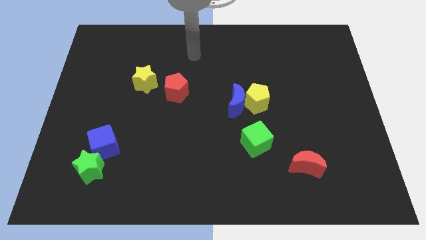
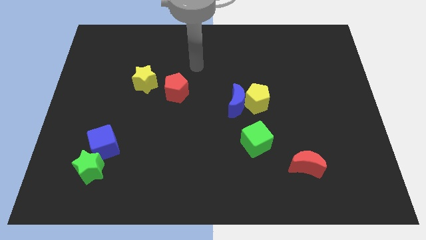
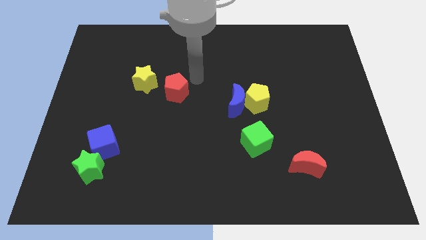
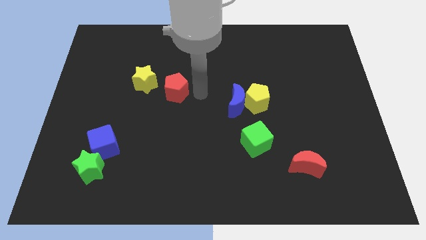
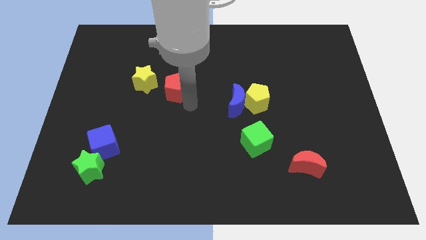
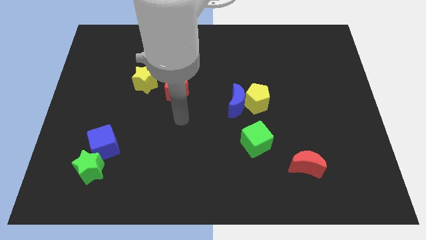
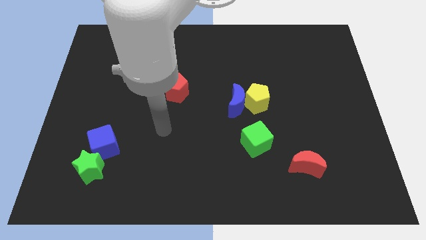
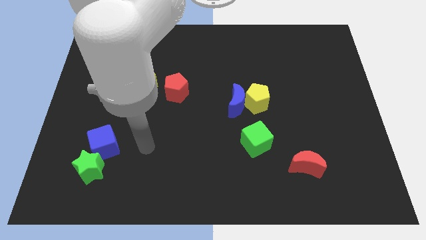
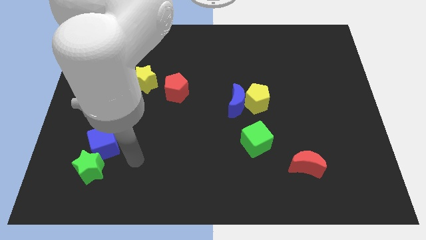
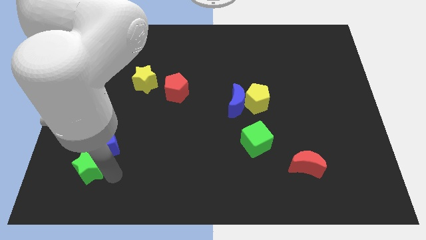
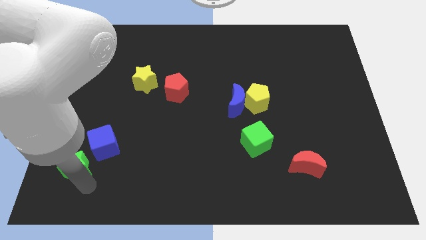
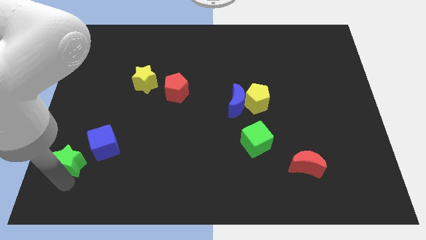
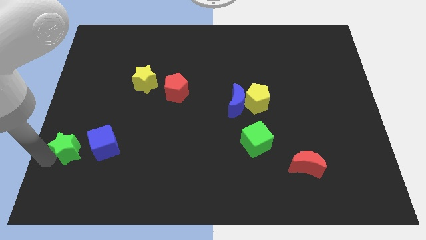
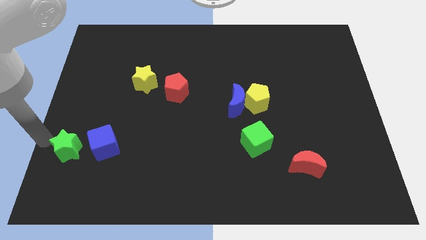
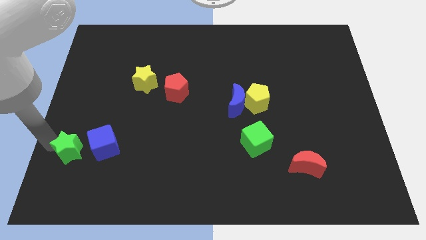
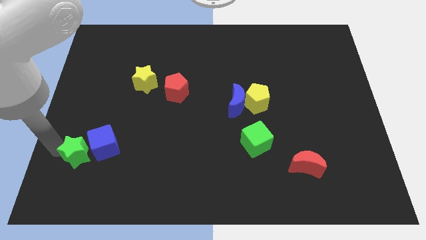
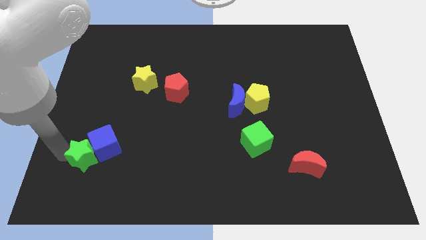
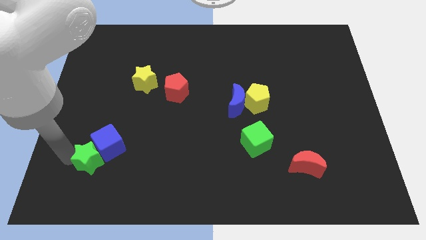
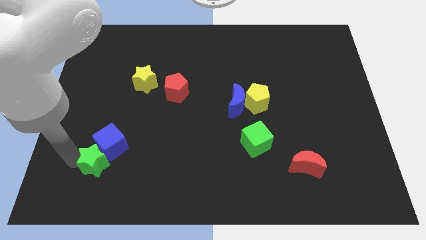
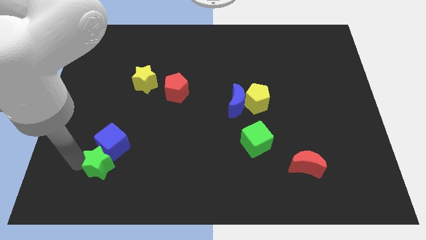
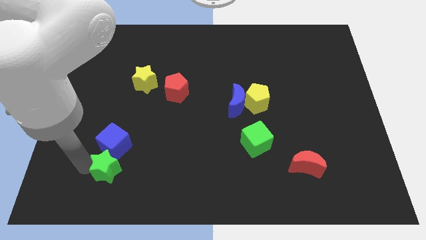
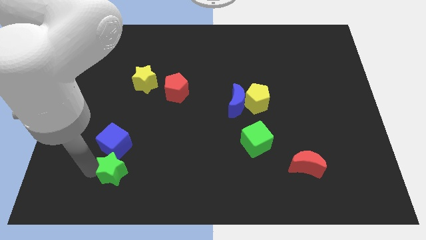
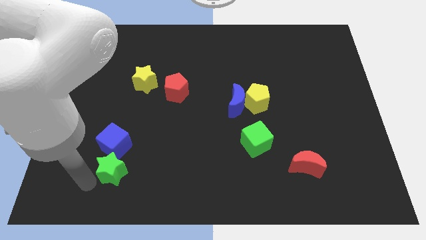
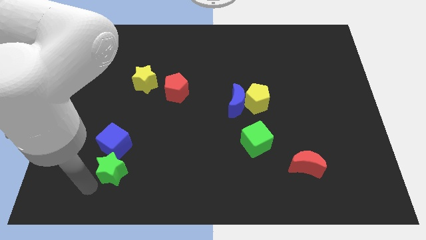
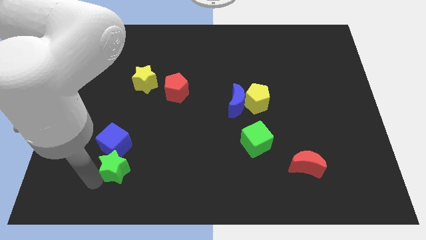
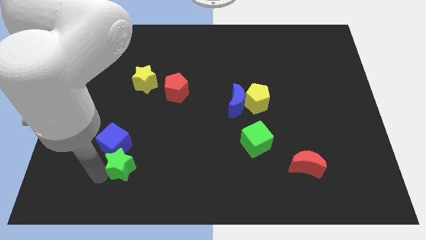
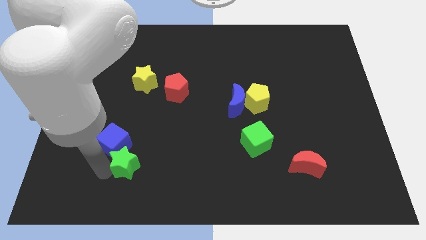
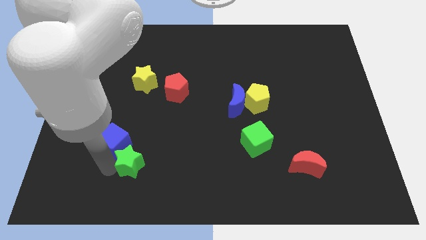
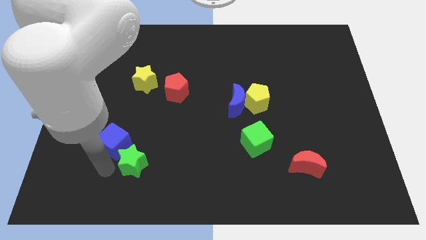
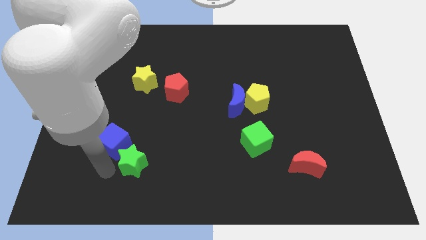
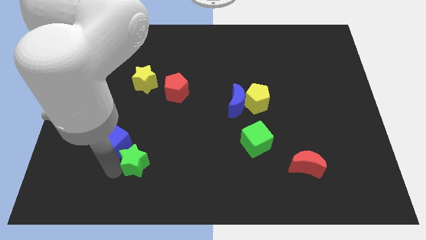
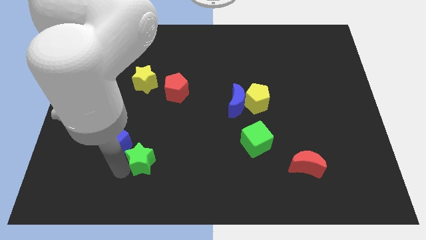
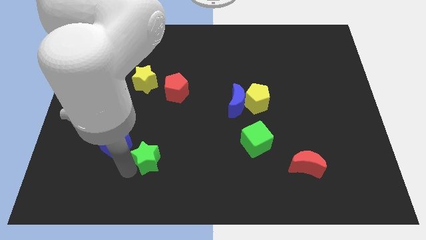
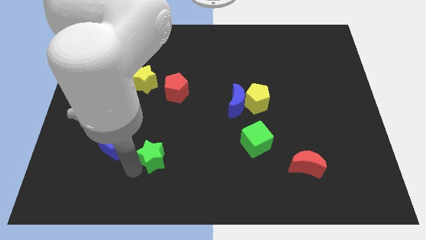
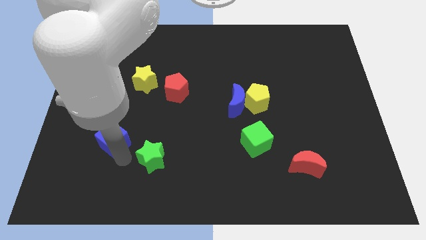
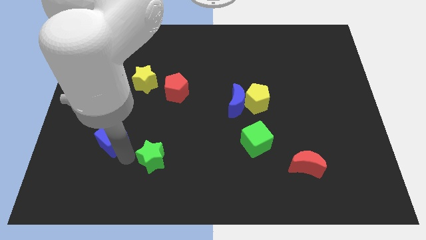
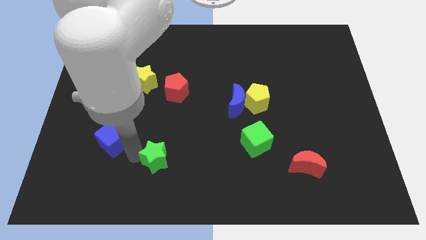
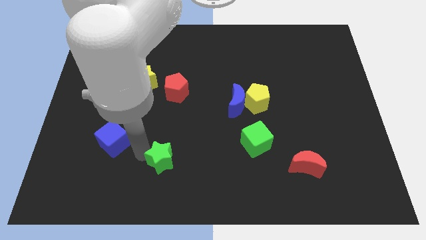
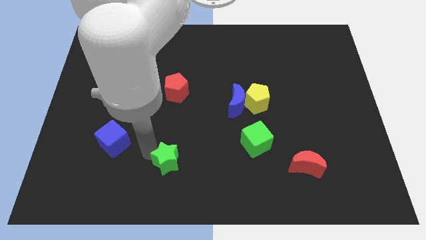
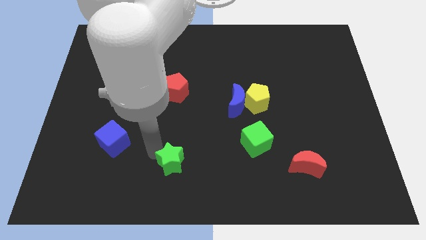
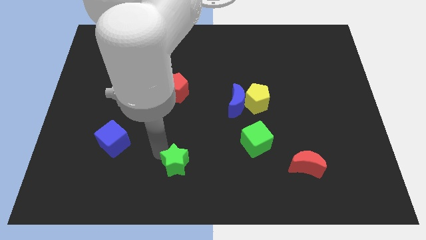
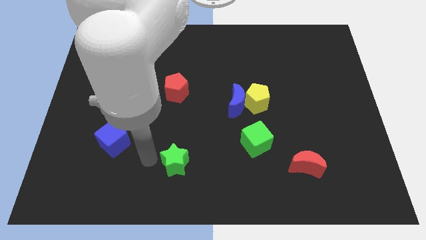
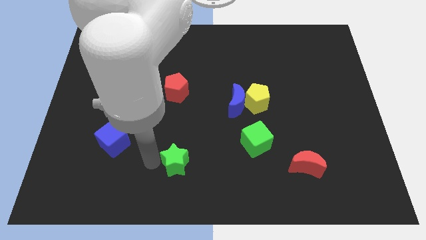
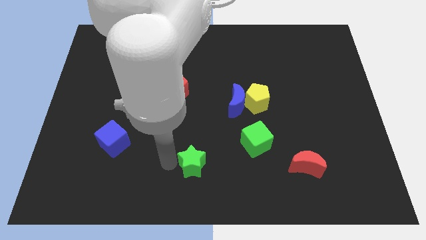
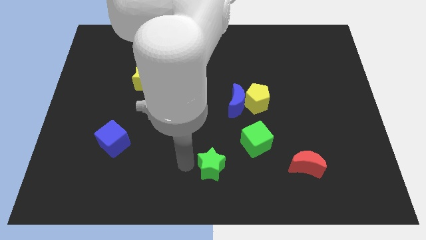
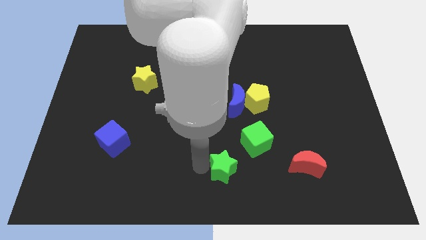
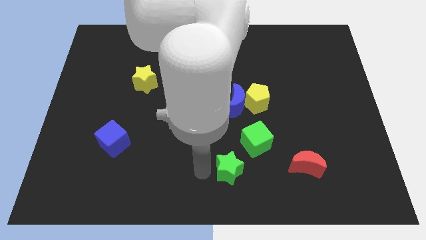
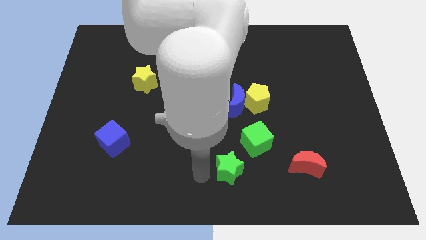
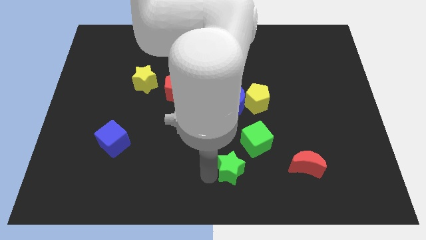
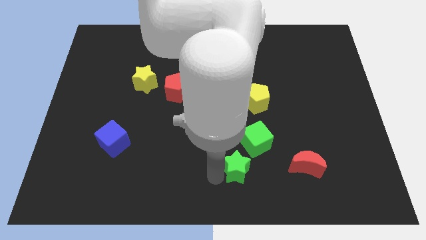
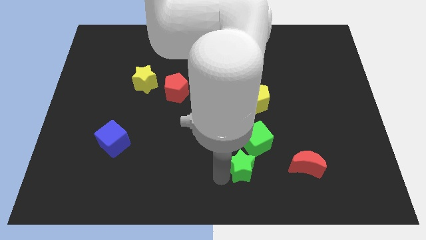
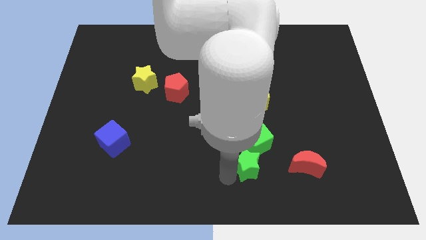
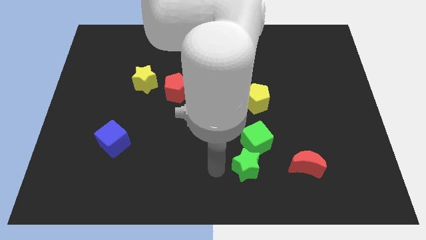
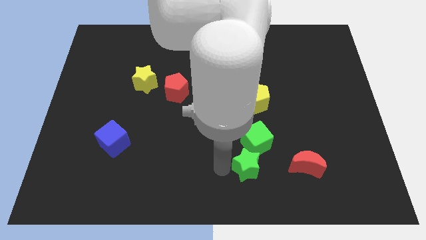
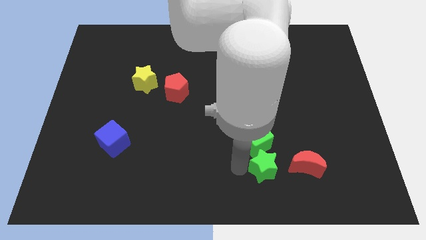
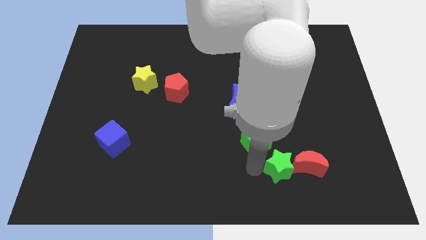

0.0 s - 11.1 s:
push the green star close to the red moon

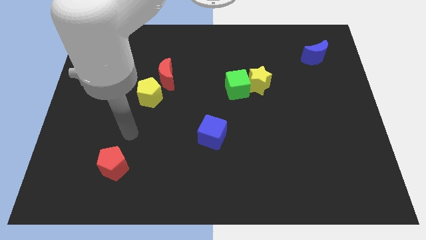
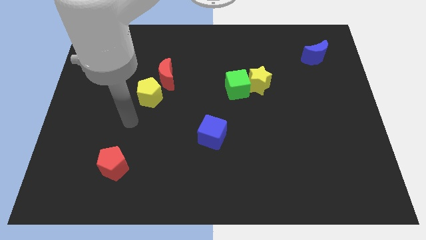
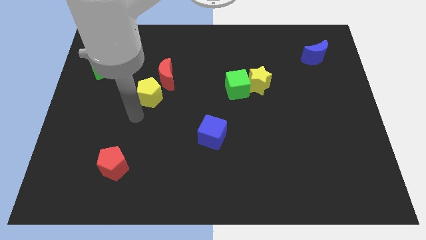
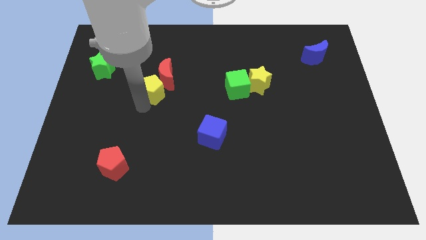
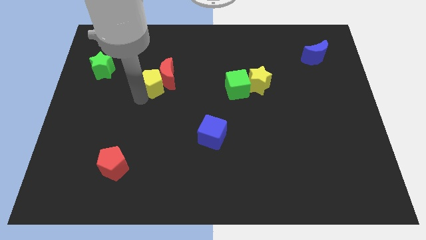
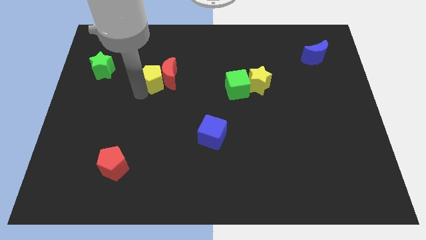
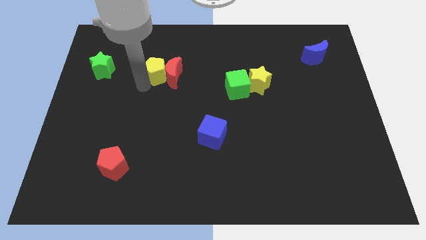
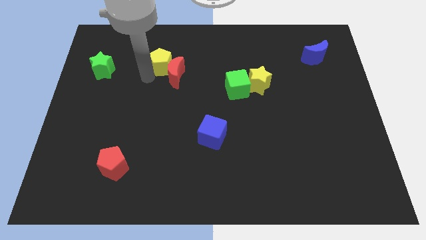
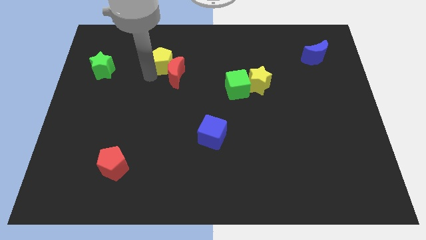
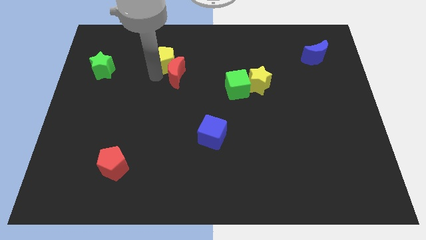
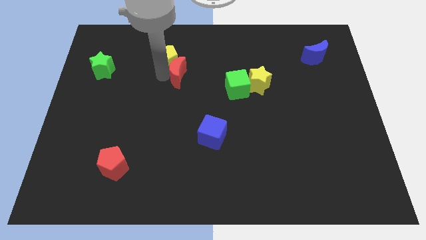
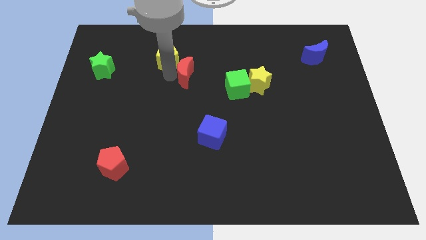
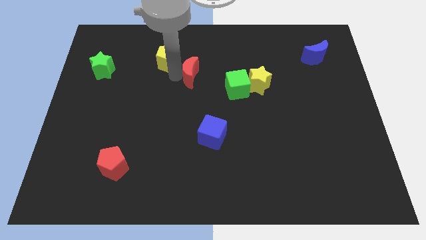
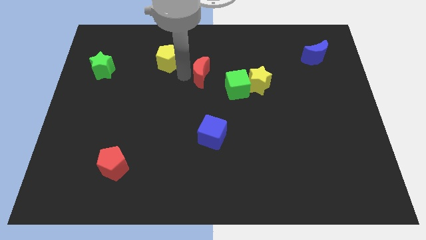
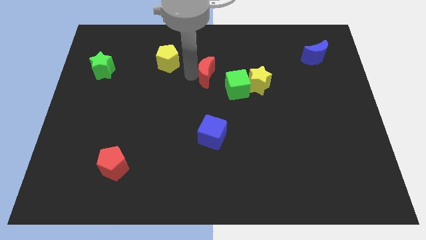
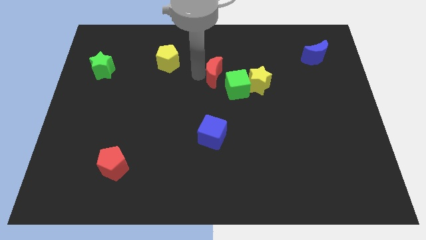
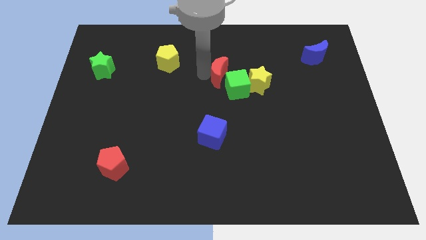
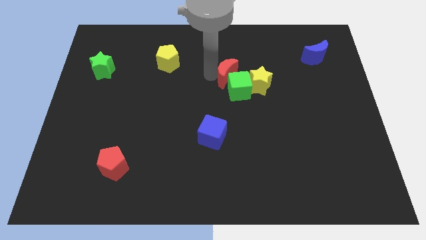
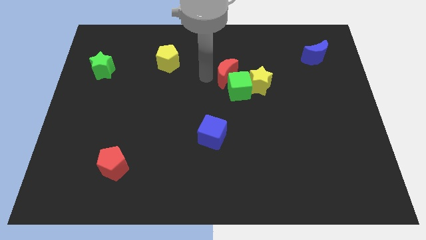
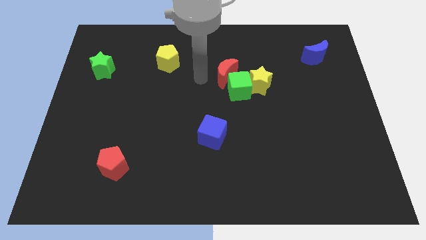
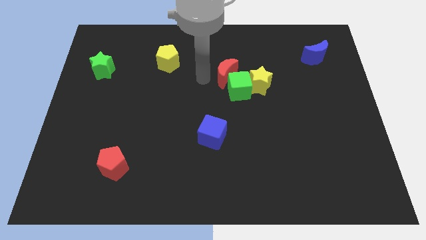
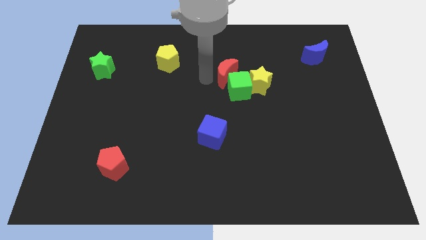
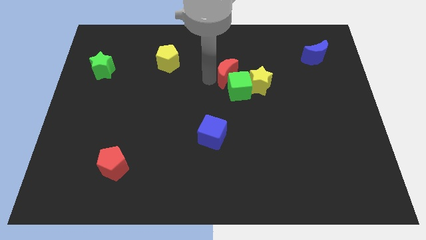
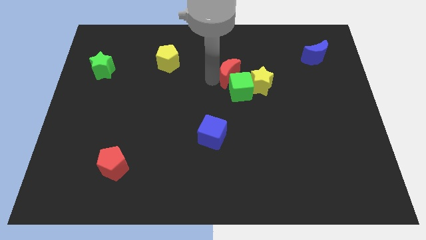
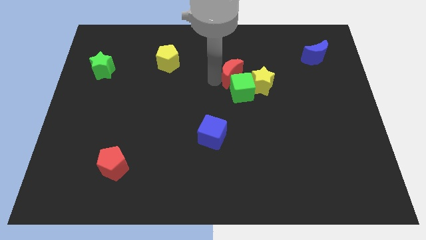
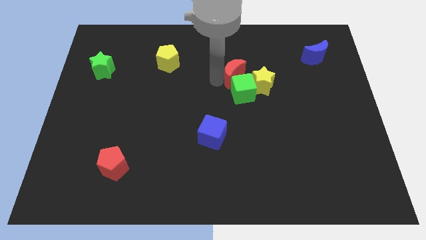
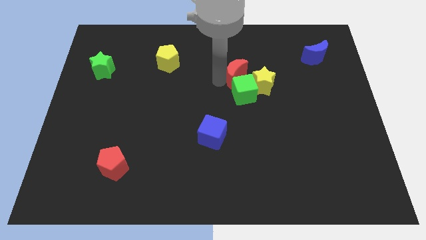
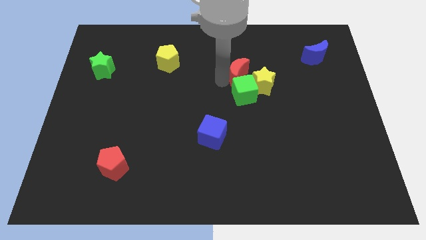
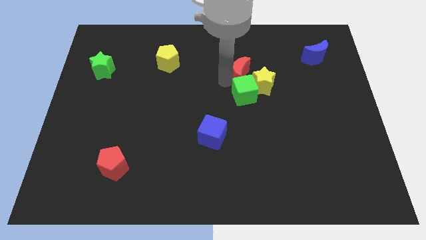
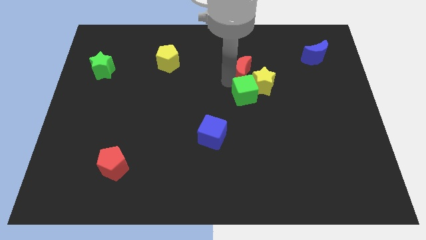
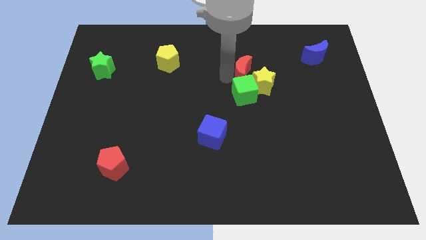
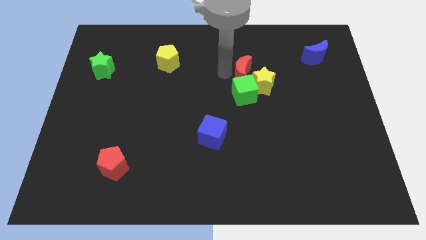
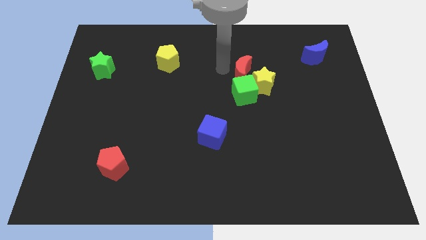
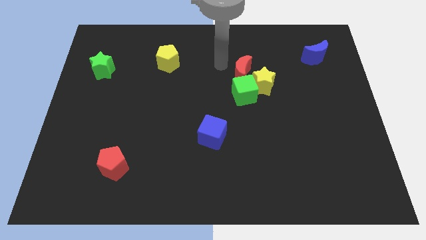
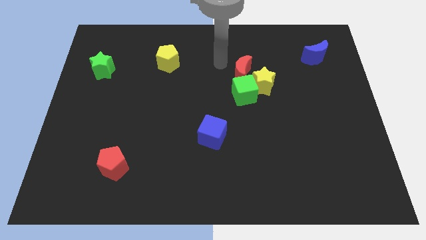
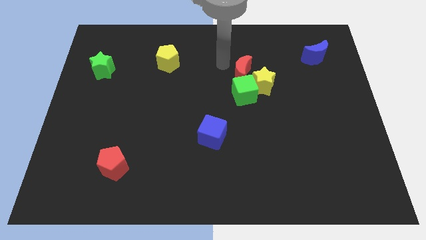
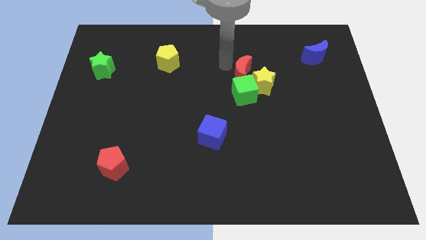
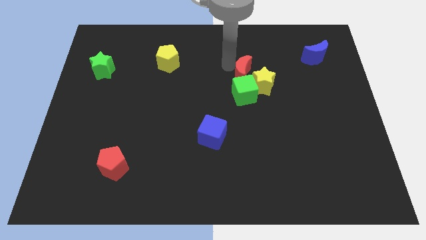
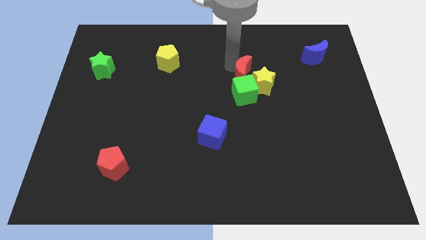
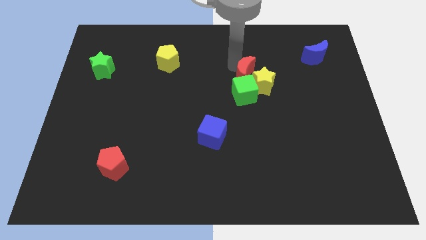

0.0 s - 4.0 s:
put the red moon to the yellow star
